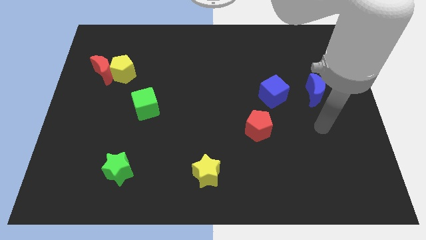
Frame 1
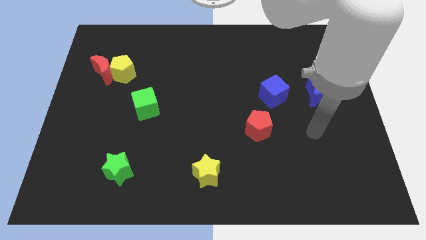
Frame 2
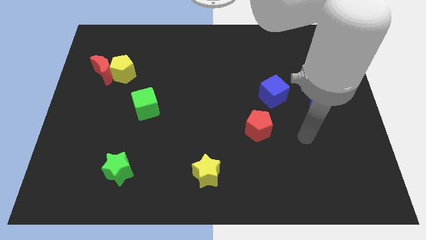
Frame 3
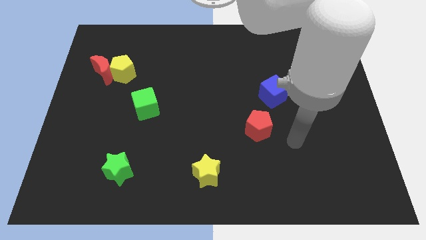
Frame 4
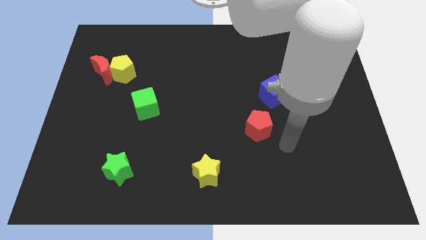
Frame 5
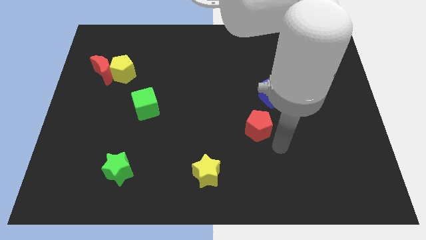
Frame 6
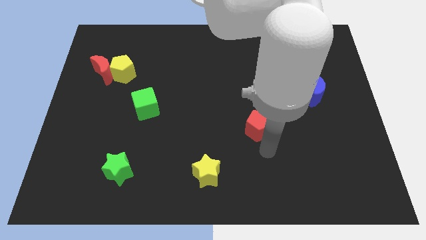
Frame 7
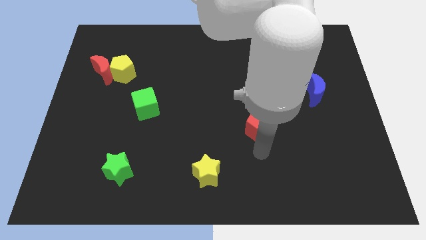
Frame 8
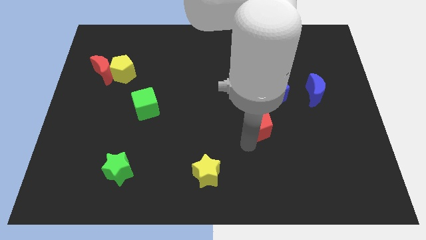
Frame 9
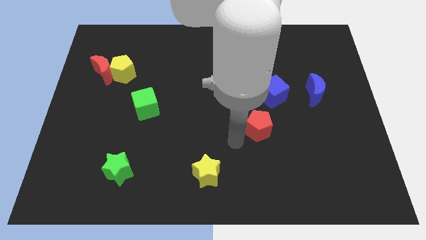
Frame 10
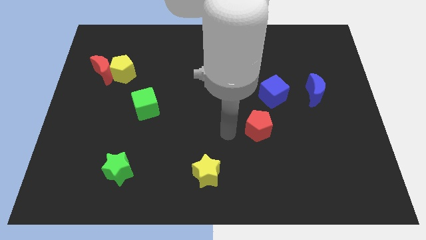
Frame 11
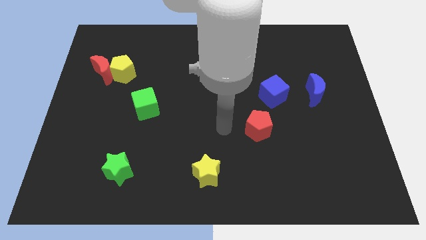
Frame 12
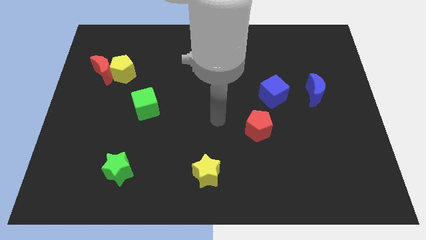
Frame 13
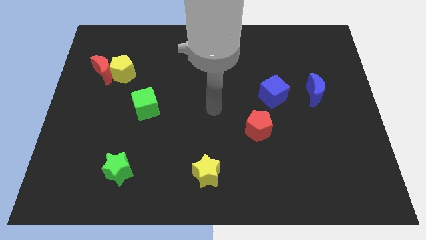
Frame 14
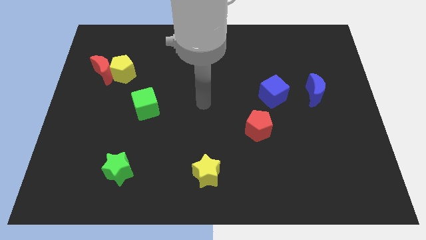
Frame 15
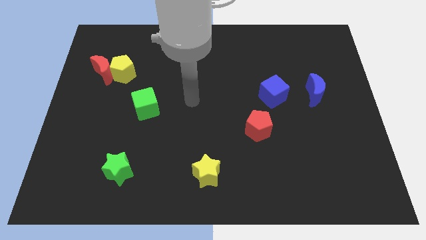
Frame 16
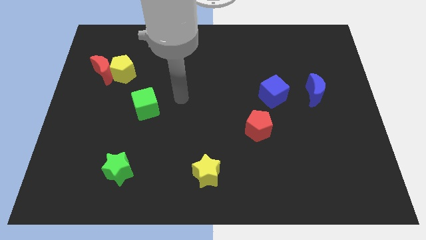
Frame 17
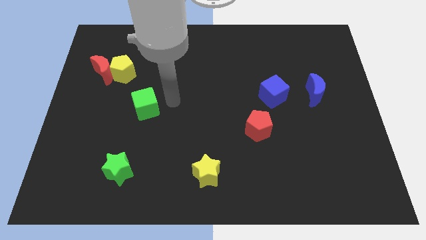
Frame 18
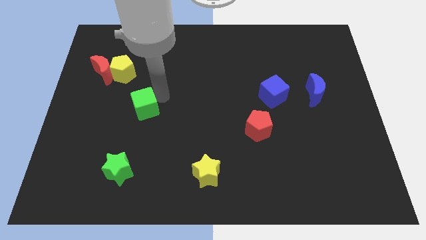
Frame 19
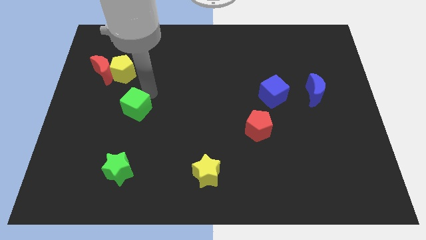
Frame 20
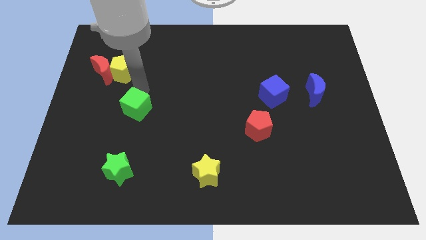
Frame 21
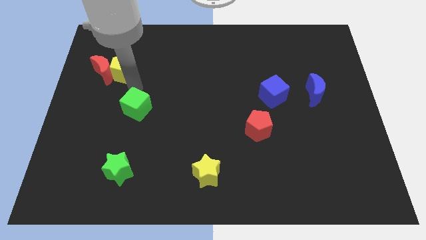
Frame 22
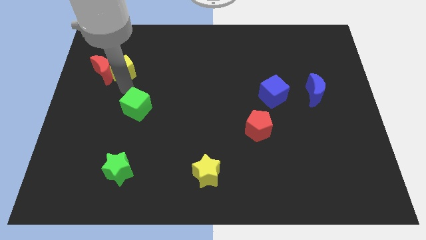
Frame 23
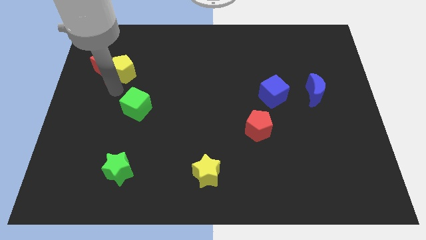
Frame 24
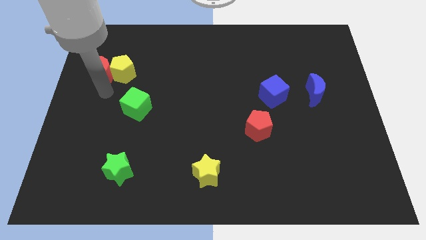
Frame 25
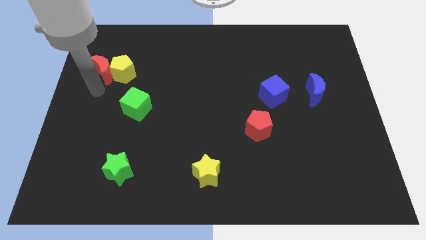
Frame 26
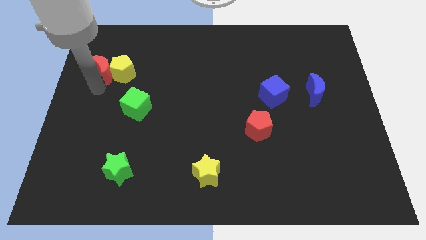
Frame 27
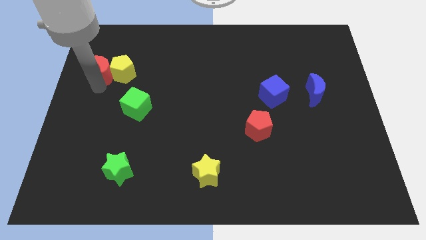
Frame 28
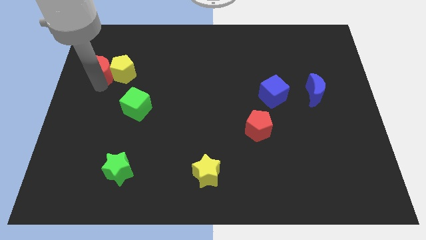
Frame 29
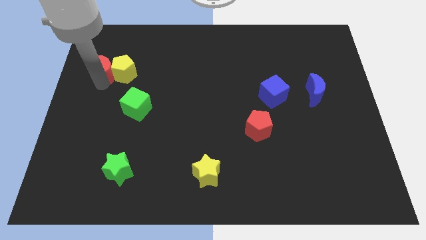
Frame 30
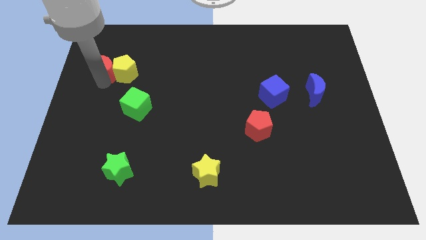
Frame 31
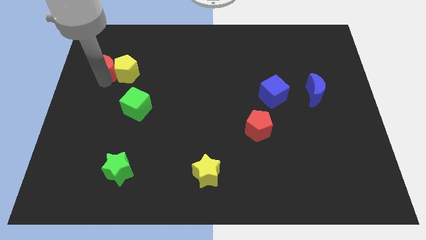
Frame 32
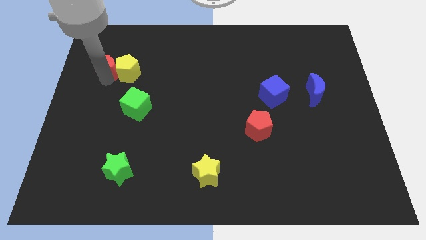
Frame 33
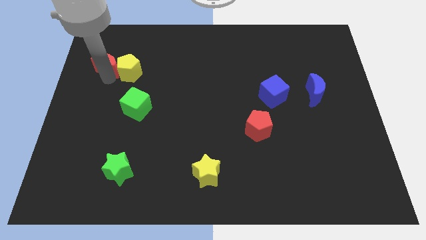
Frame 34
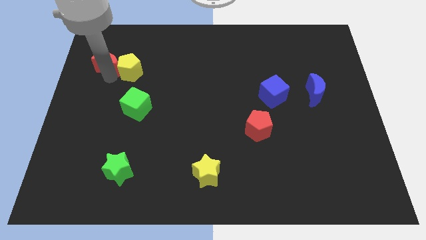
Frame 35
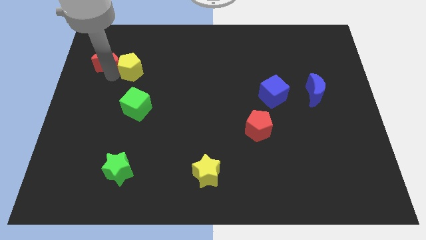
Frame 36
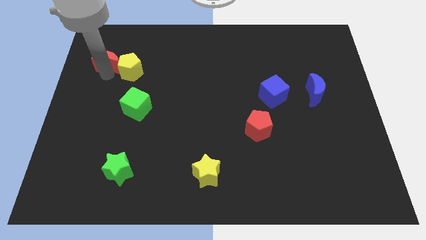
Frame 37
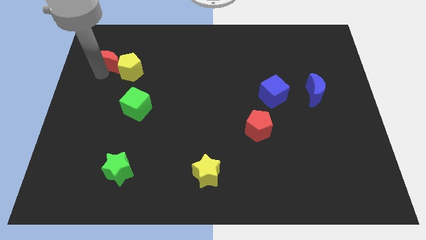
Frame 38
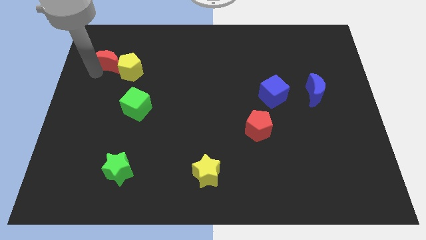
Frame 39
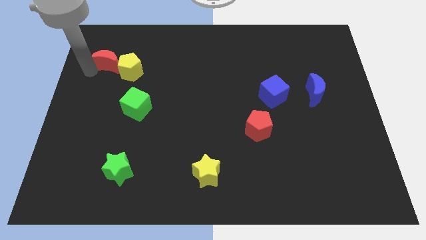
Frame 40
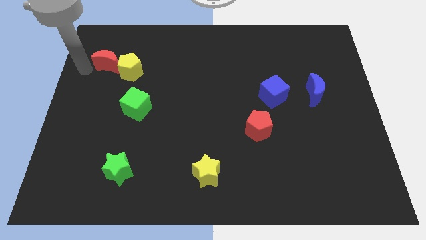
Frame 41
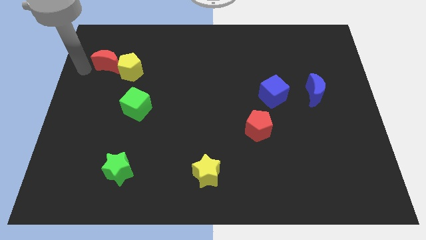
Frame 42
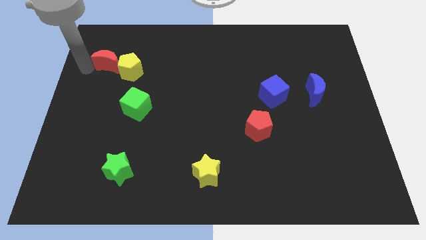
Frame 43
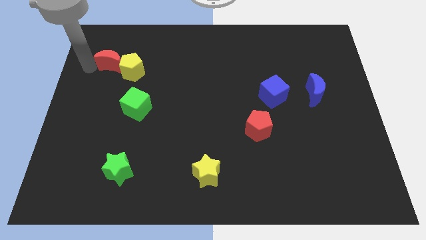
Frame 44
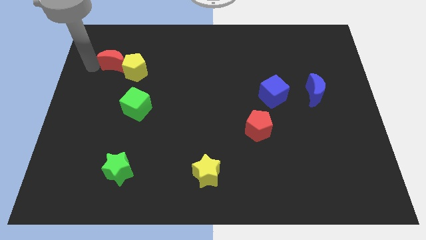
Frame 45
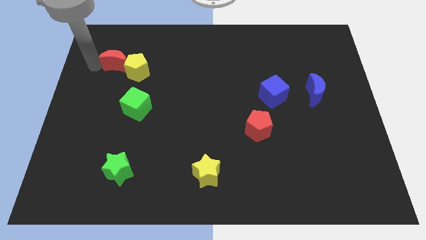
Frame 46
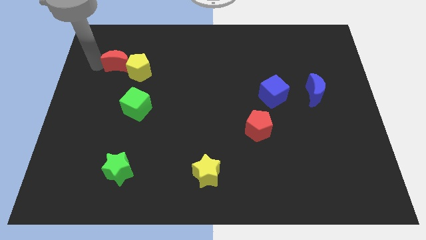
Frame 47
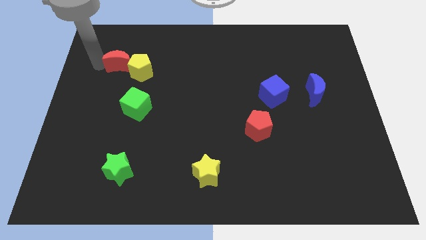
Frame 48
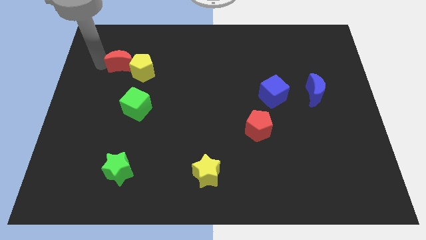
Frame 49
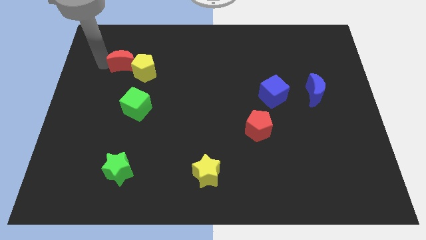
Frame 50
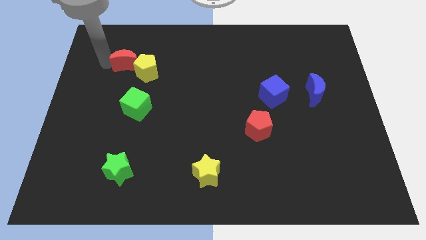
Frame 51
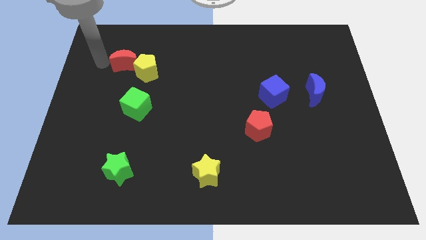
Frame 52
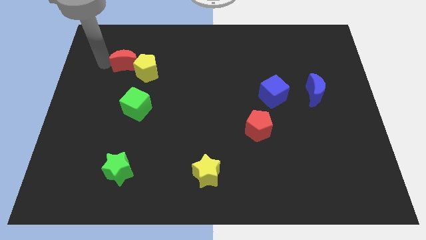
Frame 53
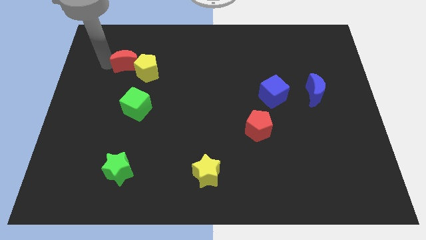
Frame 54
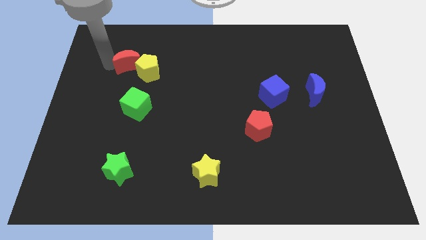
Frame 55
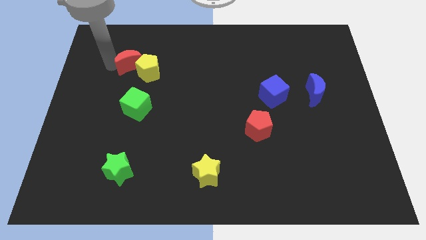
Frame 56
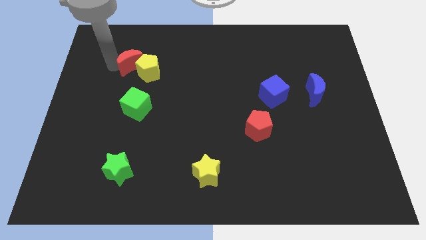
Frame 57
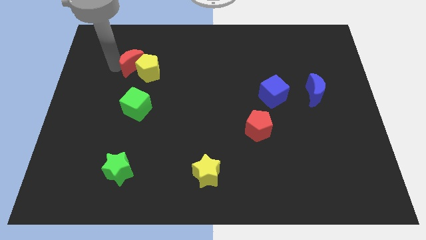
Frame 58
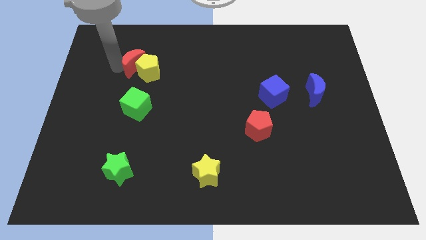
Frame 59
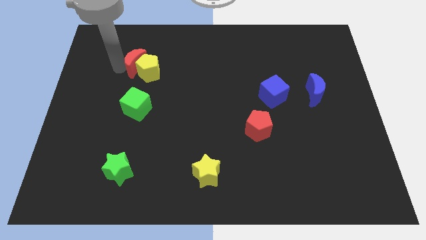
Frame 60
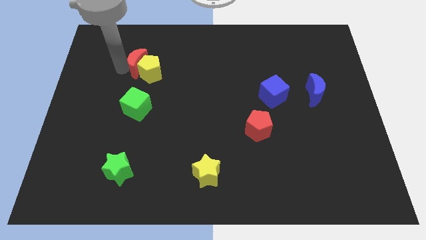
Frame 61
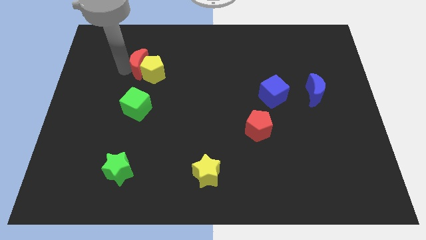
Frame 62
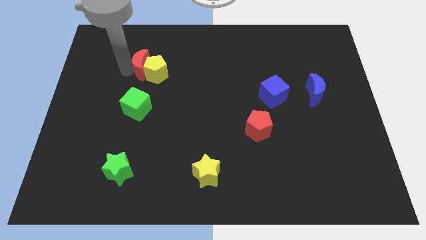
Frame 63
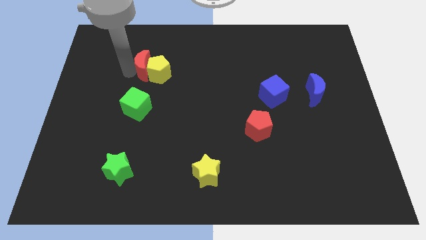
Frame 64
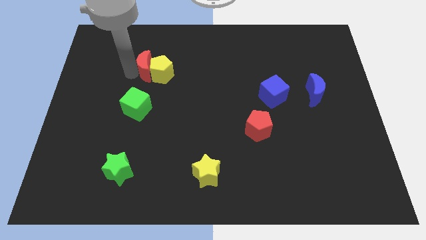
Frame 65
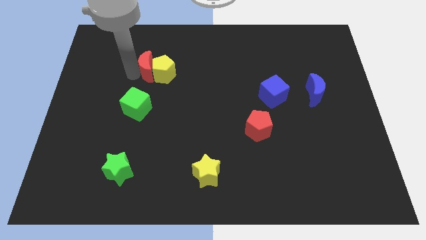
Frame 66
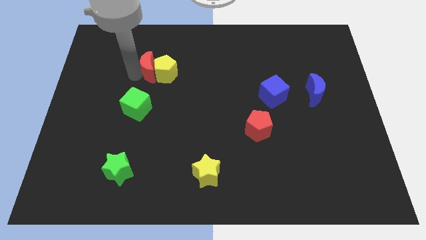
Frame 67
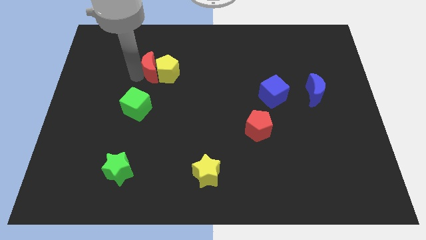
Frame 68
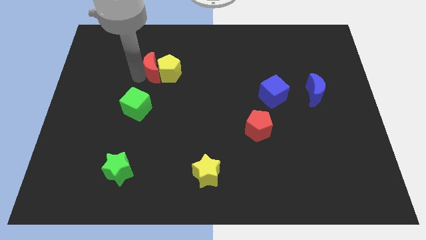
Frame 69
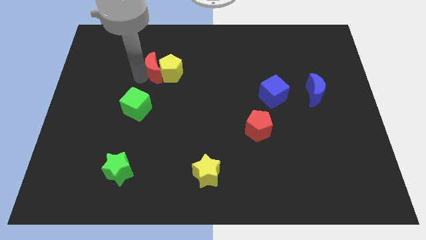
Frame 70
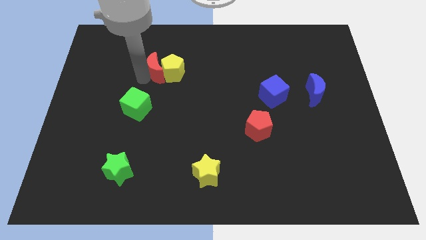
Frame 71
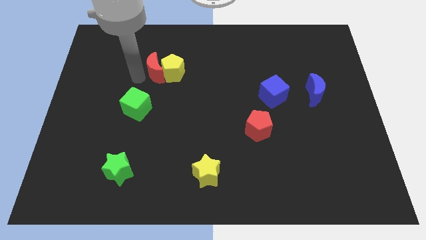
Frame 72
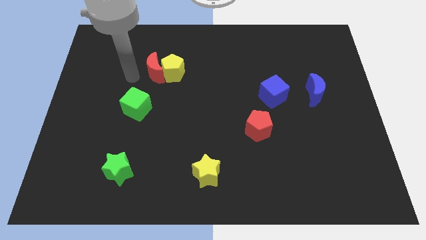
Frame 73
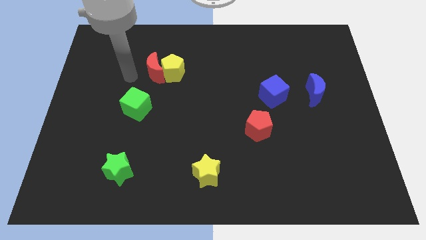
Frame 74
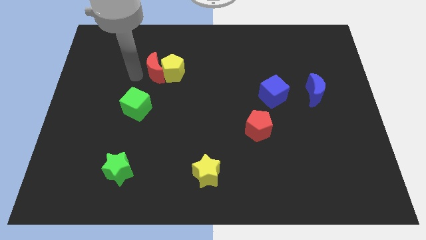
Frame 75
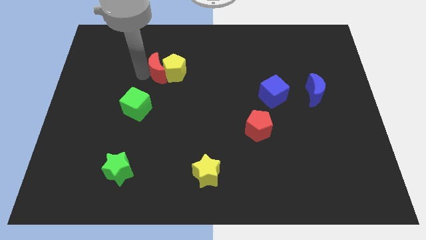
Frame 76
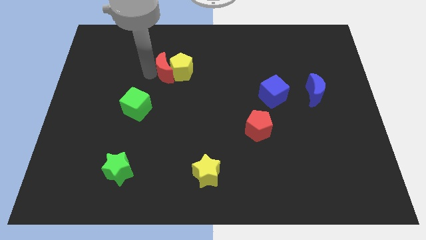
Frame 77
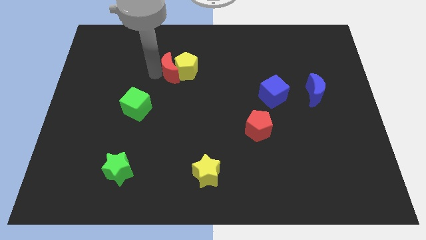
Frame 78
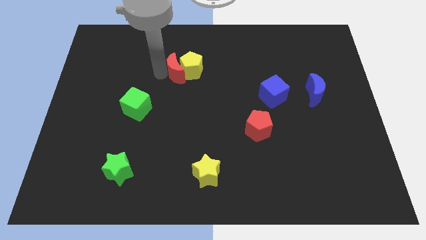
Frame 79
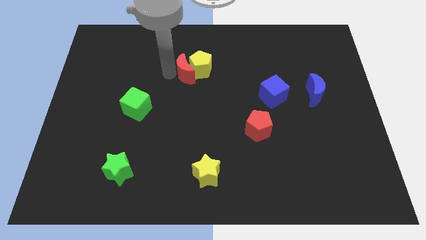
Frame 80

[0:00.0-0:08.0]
move the red moon to the right
